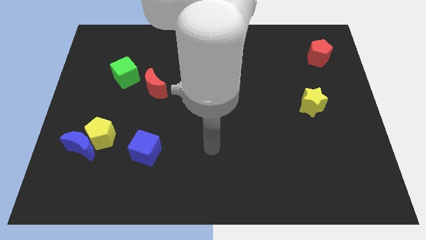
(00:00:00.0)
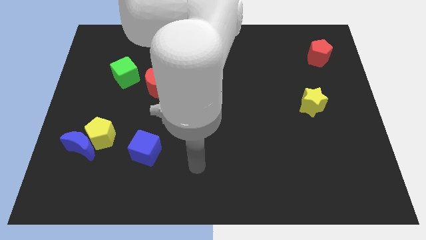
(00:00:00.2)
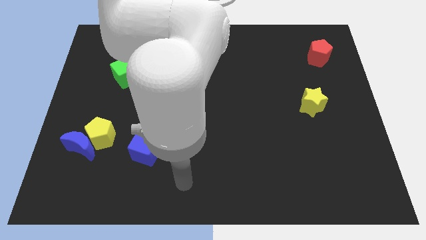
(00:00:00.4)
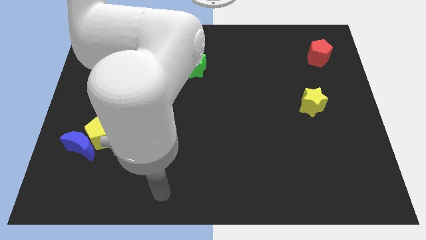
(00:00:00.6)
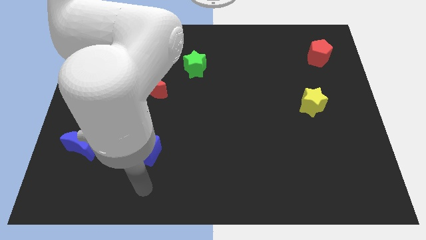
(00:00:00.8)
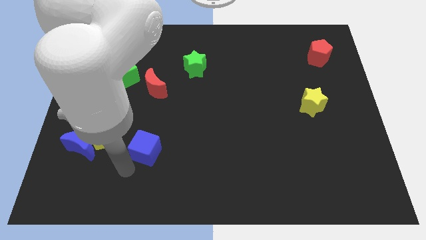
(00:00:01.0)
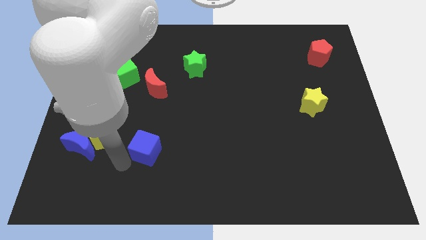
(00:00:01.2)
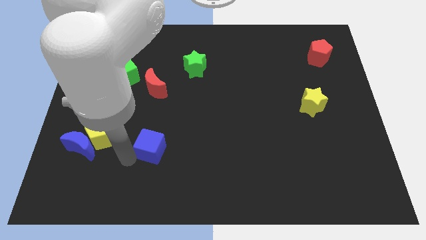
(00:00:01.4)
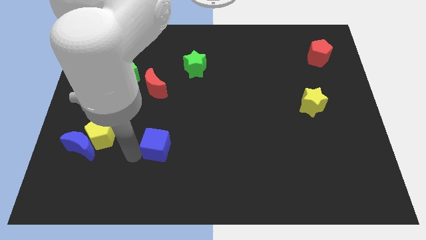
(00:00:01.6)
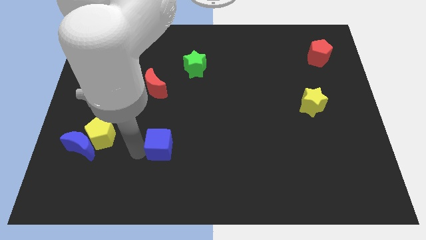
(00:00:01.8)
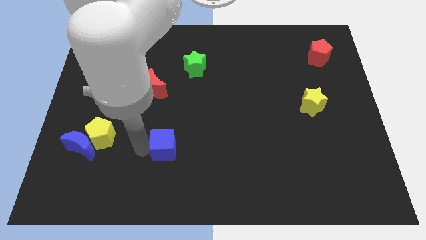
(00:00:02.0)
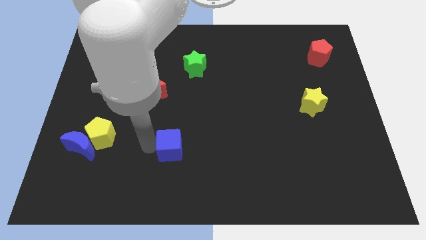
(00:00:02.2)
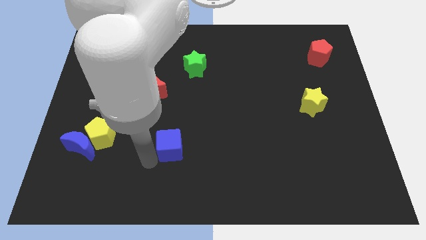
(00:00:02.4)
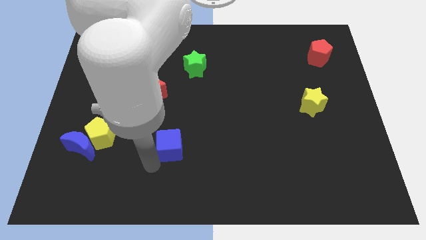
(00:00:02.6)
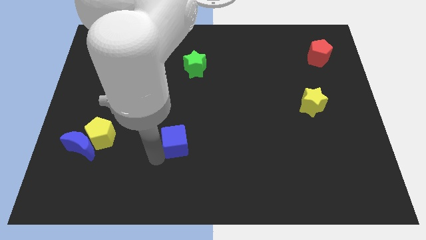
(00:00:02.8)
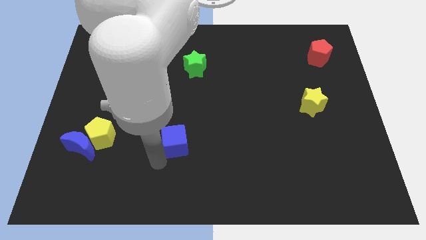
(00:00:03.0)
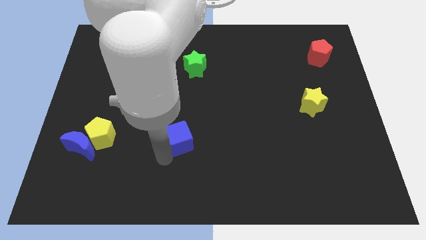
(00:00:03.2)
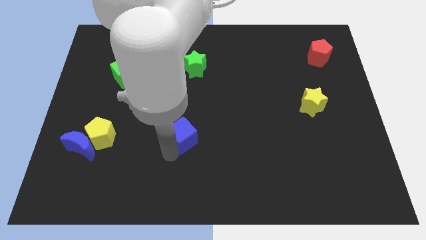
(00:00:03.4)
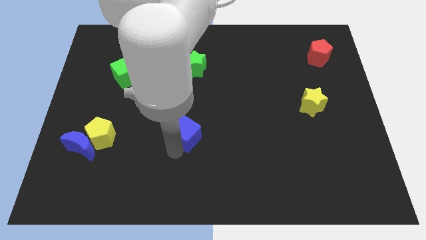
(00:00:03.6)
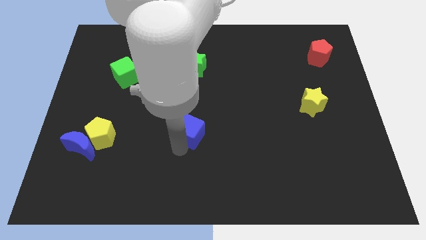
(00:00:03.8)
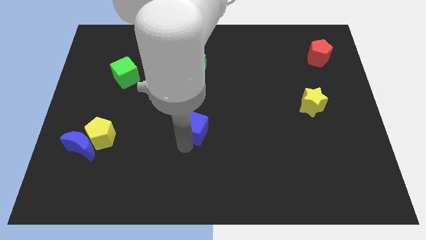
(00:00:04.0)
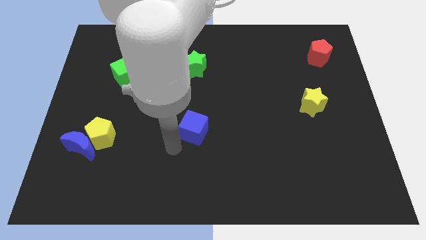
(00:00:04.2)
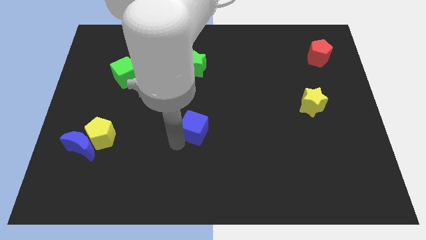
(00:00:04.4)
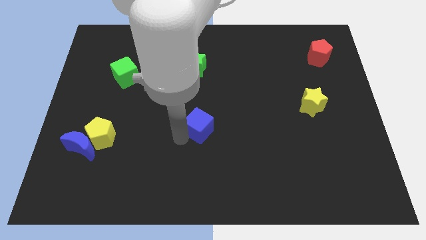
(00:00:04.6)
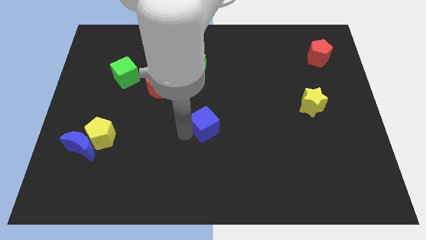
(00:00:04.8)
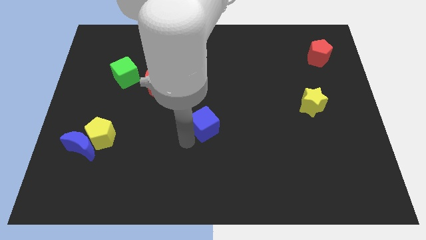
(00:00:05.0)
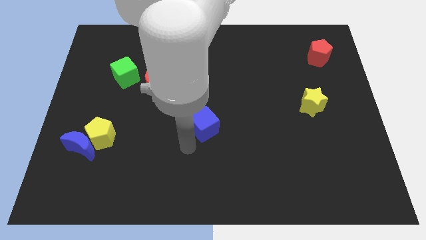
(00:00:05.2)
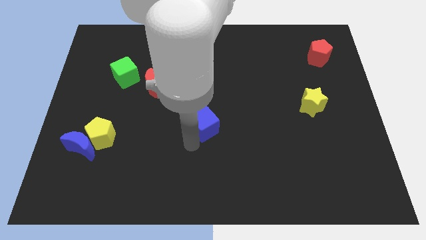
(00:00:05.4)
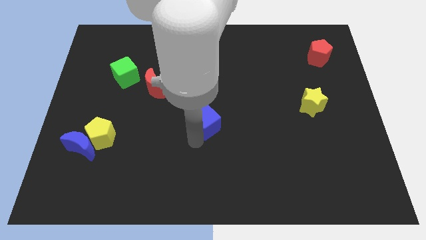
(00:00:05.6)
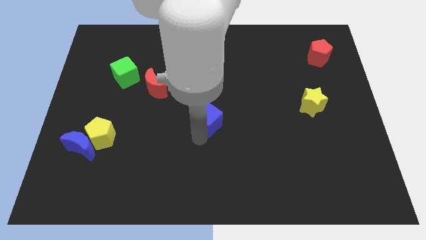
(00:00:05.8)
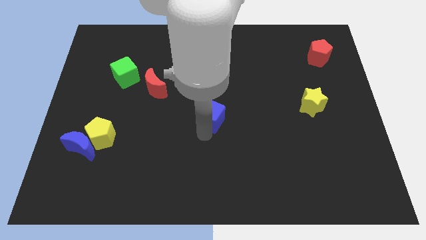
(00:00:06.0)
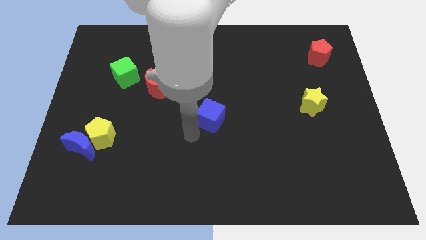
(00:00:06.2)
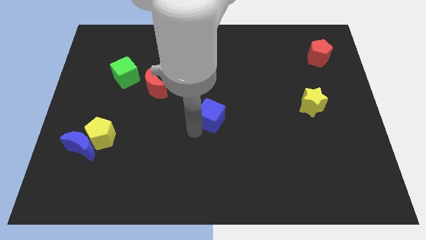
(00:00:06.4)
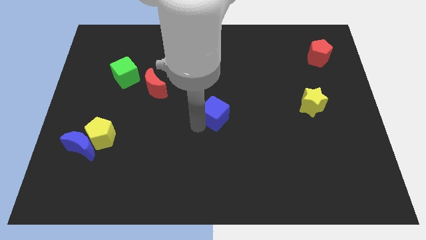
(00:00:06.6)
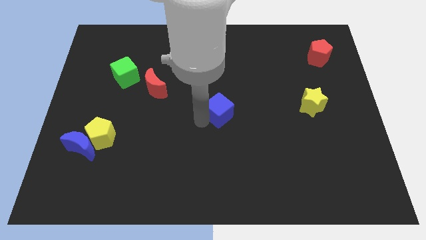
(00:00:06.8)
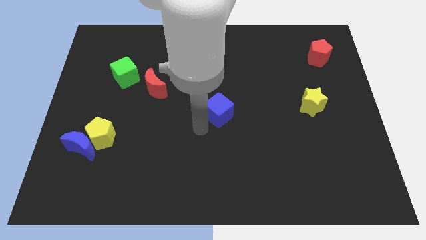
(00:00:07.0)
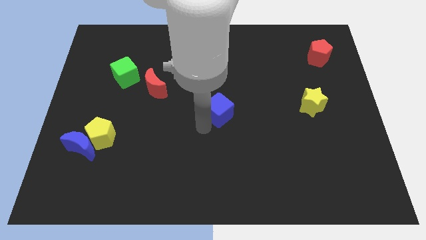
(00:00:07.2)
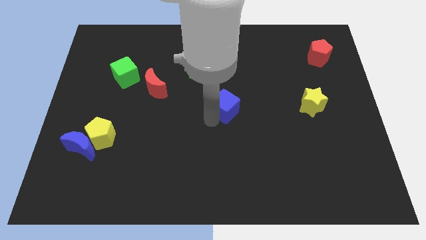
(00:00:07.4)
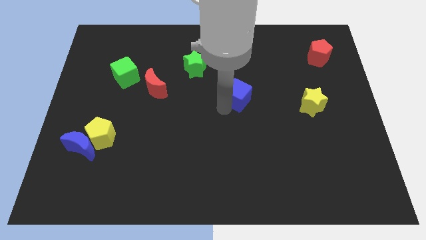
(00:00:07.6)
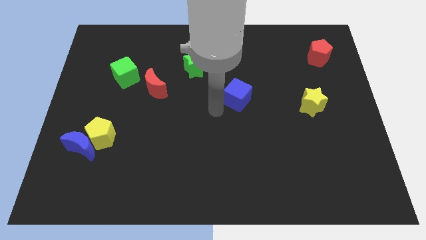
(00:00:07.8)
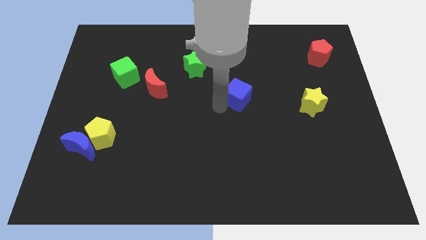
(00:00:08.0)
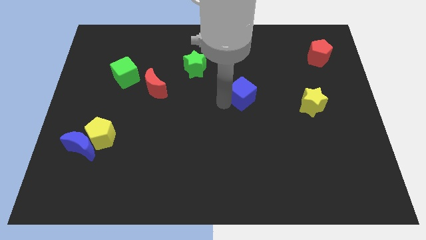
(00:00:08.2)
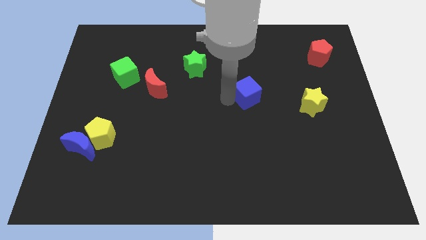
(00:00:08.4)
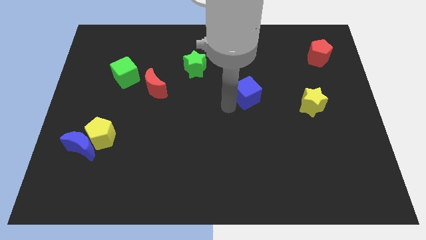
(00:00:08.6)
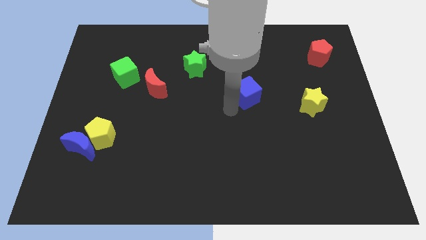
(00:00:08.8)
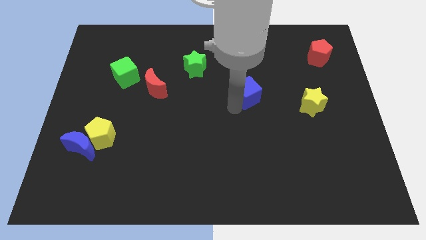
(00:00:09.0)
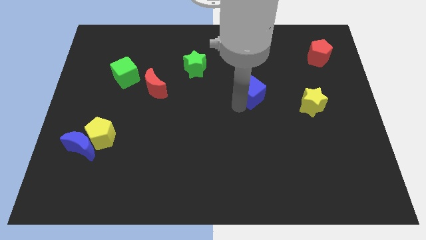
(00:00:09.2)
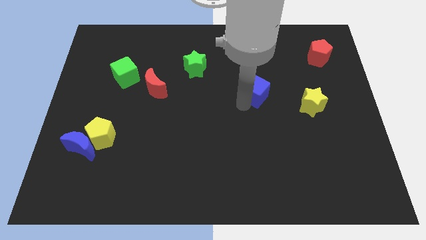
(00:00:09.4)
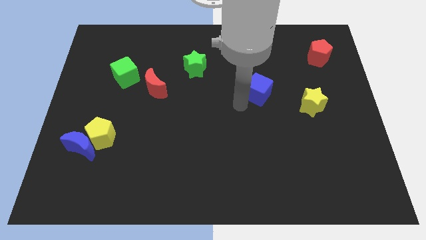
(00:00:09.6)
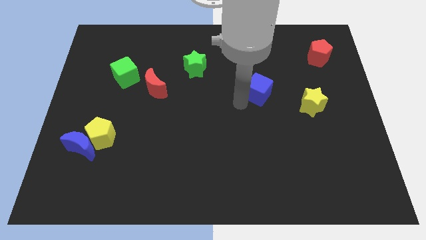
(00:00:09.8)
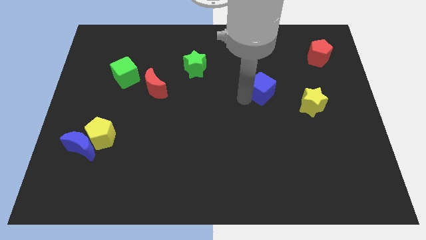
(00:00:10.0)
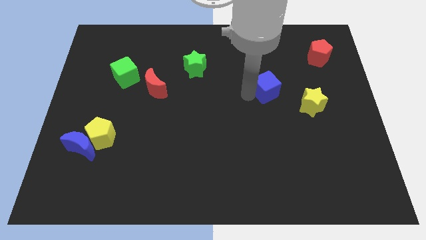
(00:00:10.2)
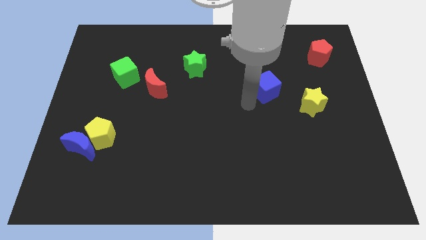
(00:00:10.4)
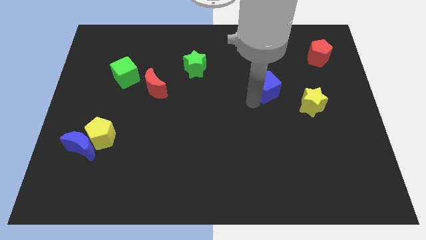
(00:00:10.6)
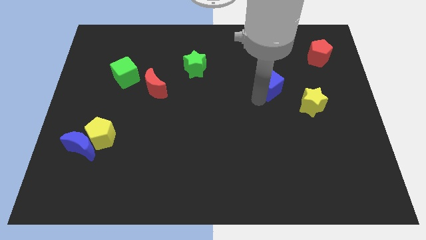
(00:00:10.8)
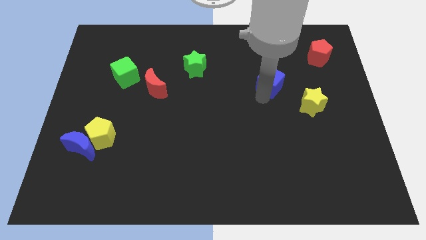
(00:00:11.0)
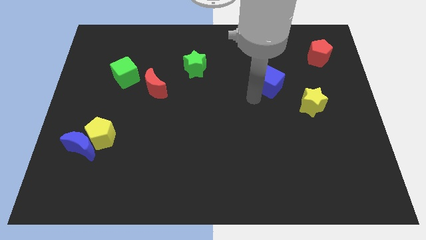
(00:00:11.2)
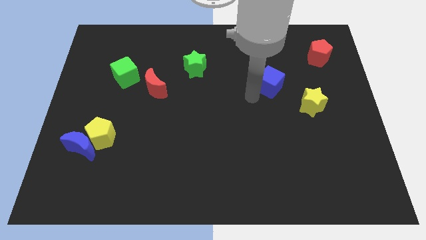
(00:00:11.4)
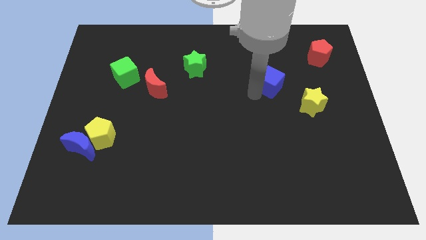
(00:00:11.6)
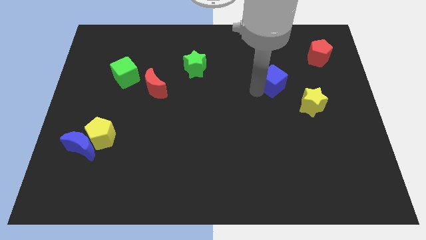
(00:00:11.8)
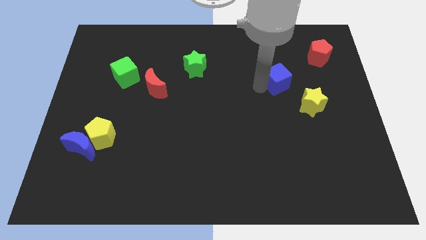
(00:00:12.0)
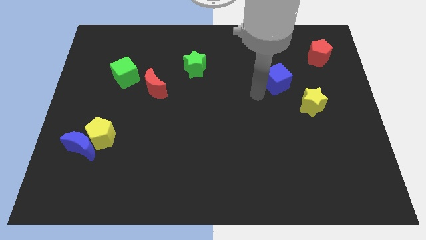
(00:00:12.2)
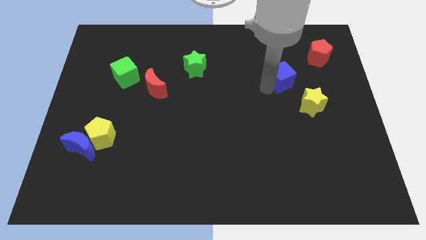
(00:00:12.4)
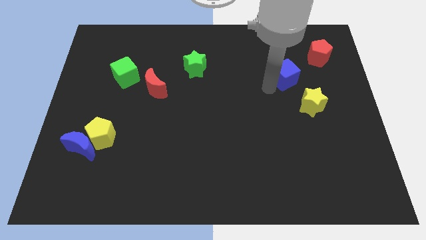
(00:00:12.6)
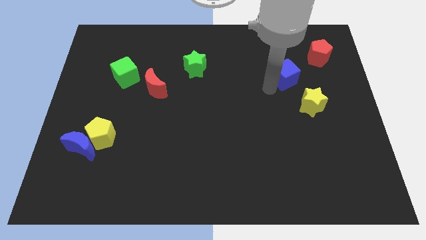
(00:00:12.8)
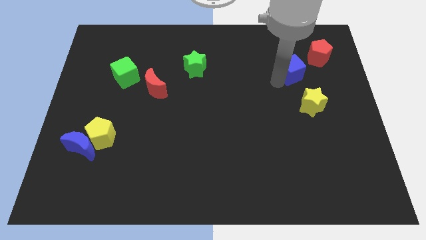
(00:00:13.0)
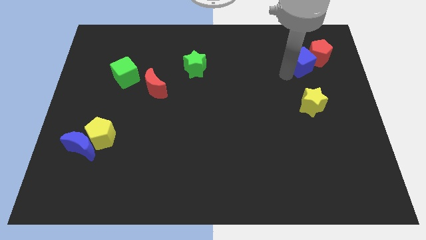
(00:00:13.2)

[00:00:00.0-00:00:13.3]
push the blue cube close to the red pentagon
